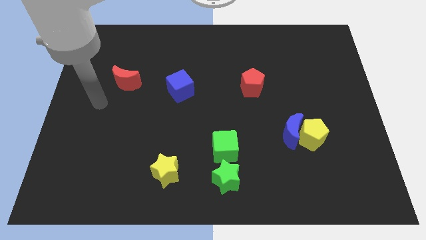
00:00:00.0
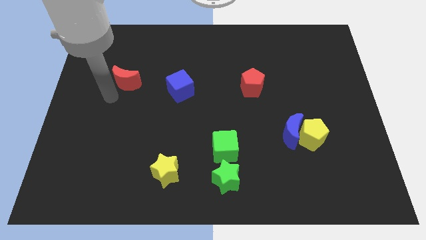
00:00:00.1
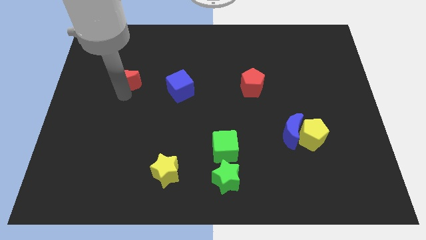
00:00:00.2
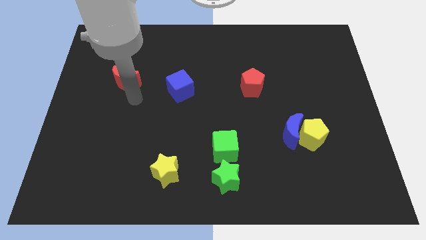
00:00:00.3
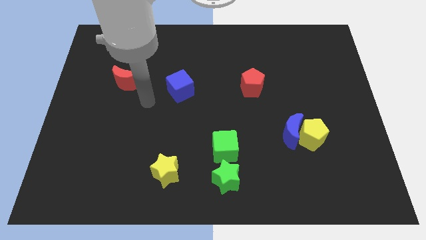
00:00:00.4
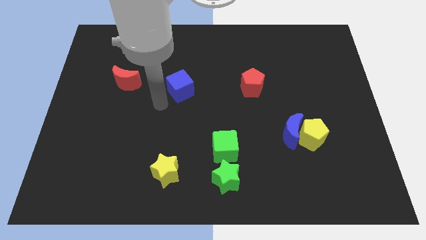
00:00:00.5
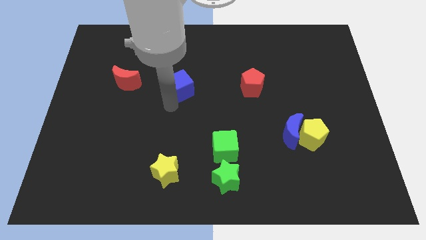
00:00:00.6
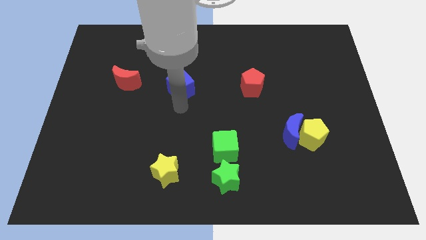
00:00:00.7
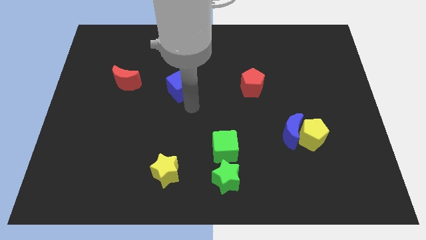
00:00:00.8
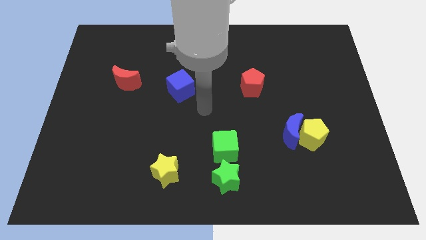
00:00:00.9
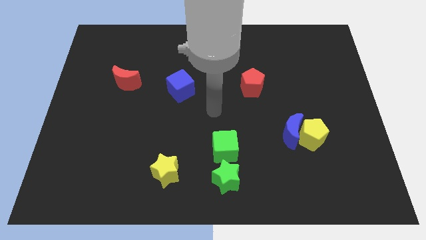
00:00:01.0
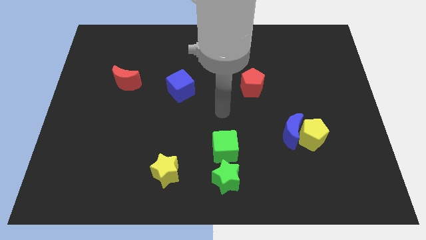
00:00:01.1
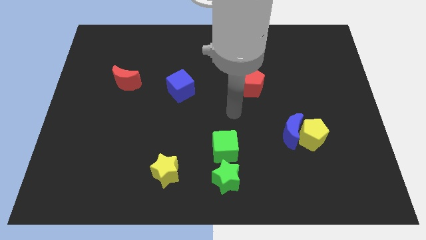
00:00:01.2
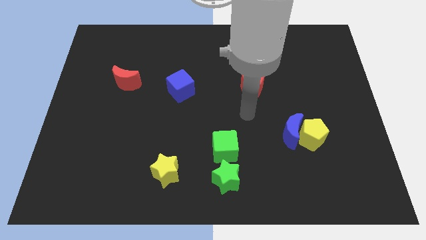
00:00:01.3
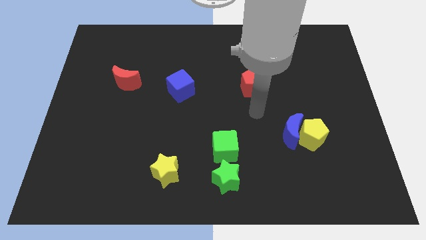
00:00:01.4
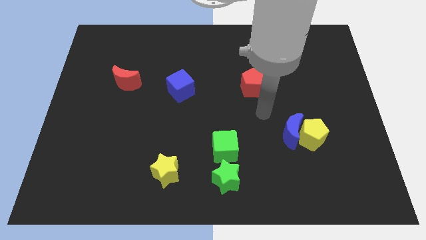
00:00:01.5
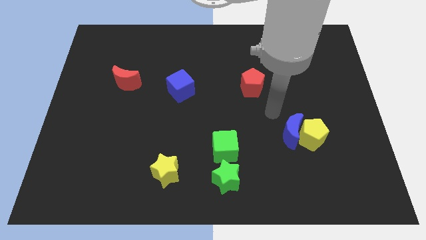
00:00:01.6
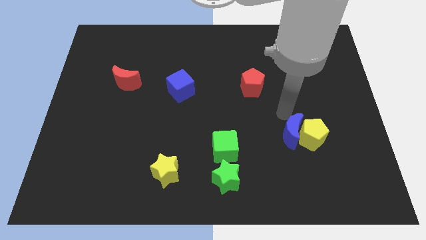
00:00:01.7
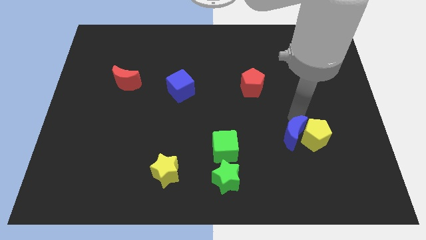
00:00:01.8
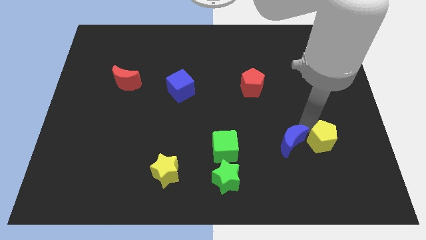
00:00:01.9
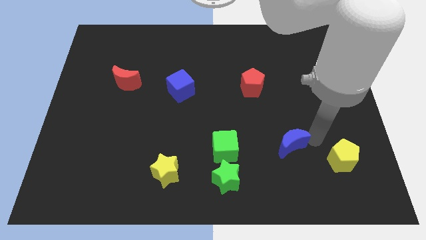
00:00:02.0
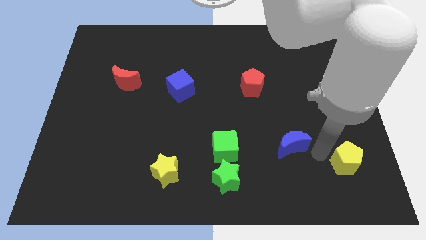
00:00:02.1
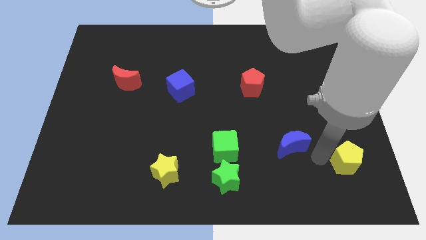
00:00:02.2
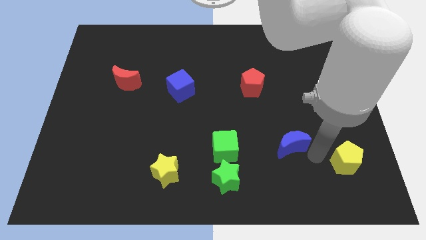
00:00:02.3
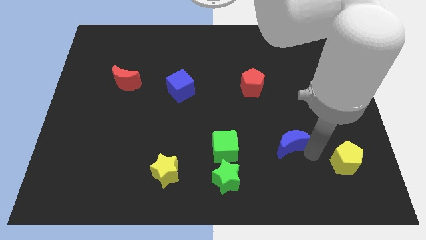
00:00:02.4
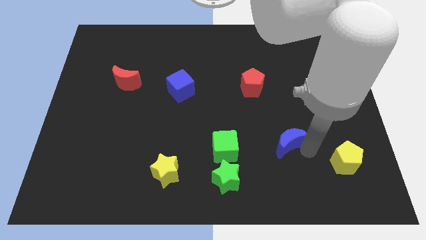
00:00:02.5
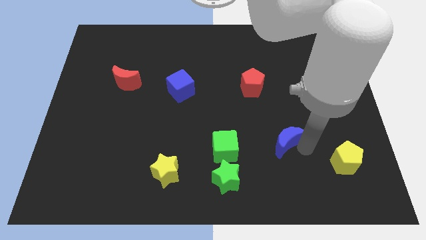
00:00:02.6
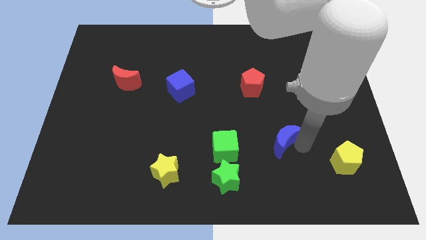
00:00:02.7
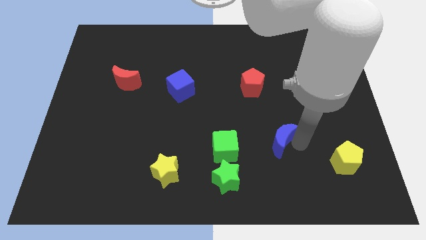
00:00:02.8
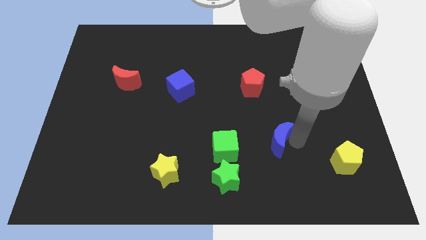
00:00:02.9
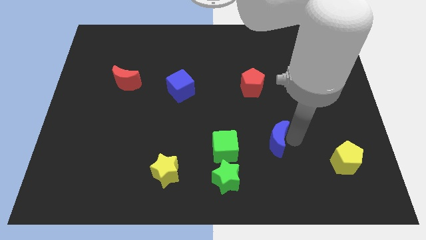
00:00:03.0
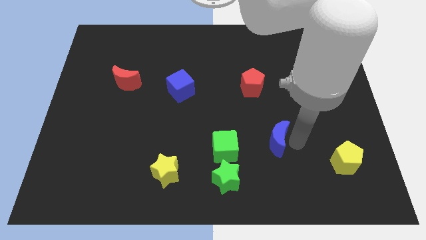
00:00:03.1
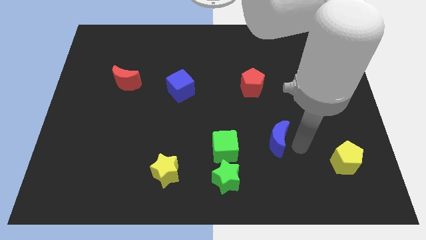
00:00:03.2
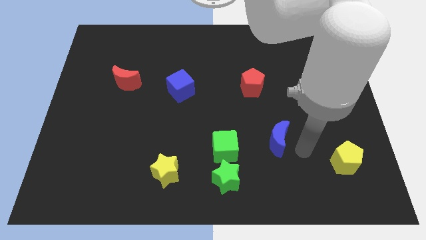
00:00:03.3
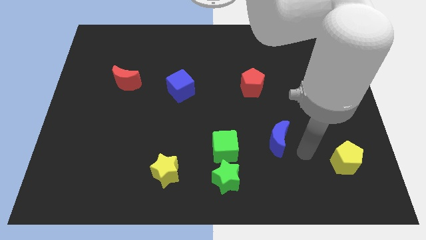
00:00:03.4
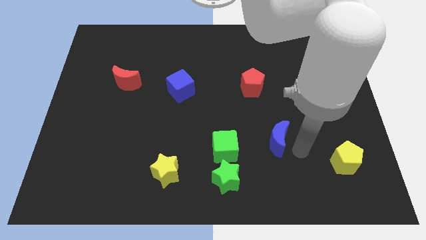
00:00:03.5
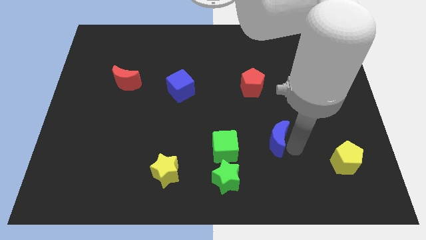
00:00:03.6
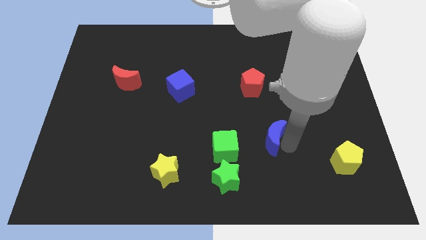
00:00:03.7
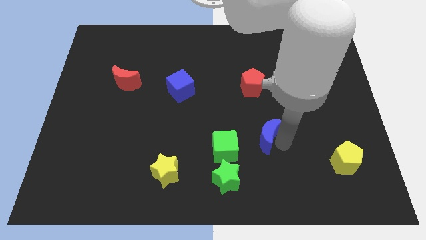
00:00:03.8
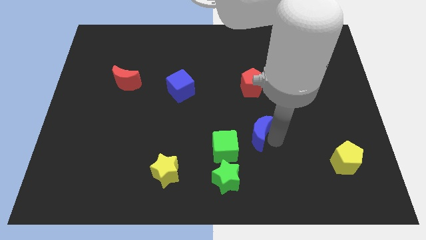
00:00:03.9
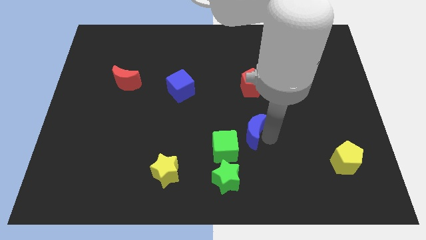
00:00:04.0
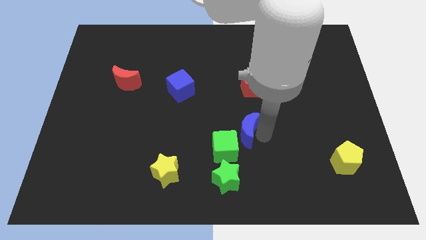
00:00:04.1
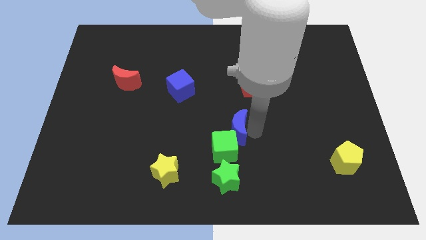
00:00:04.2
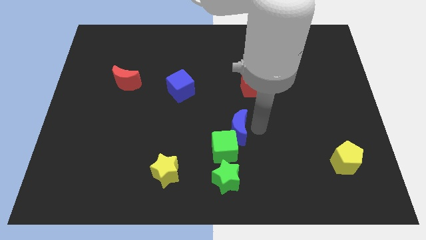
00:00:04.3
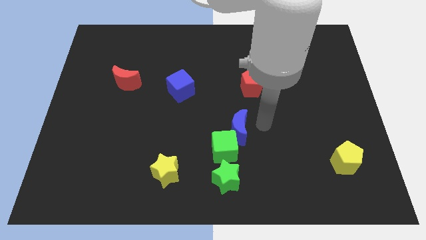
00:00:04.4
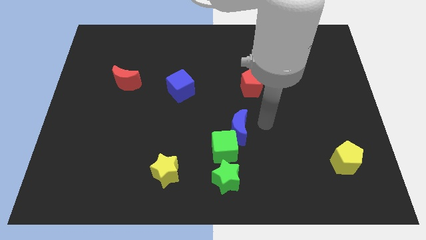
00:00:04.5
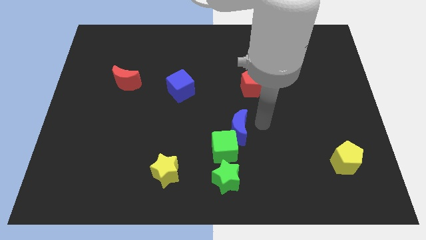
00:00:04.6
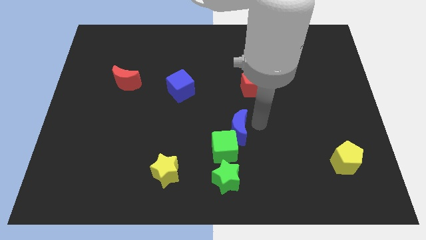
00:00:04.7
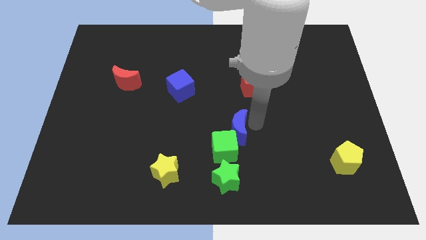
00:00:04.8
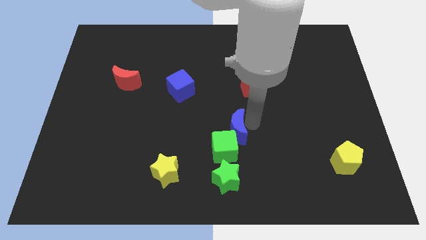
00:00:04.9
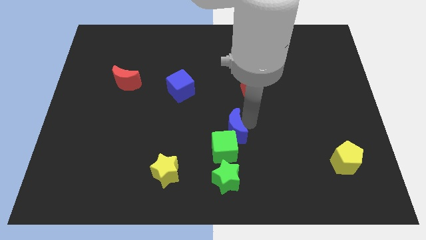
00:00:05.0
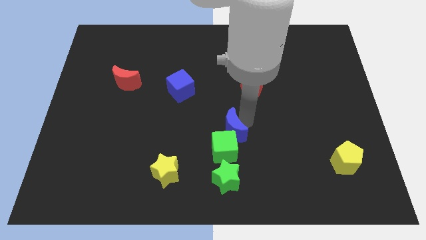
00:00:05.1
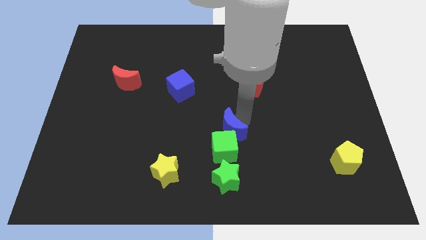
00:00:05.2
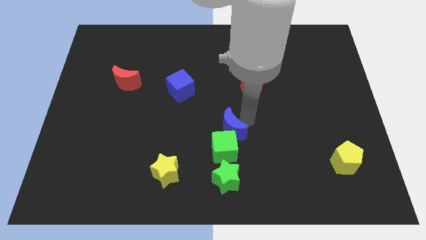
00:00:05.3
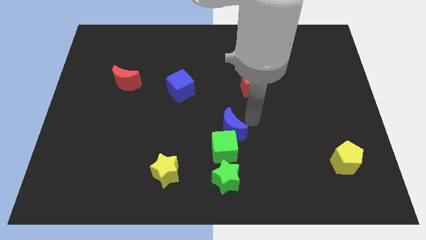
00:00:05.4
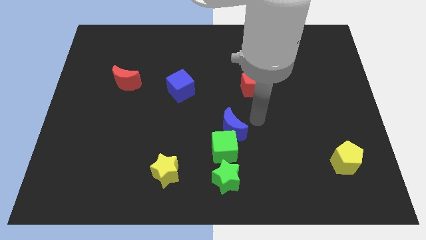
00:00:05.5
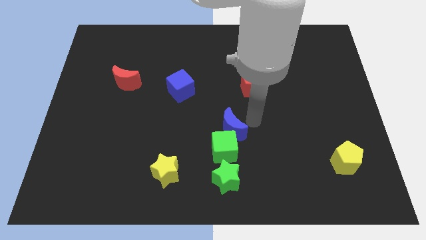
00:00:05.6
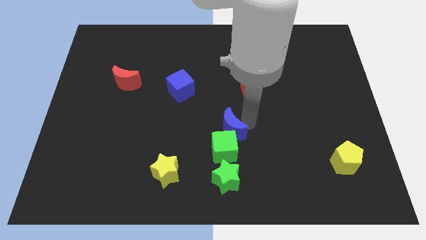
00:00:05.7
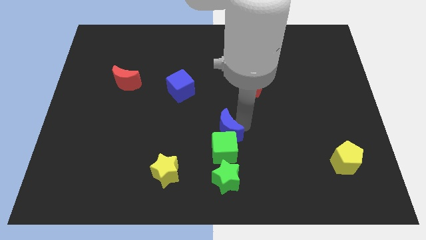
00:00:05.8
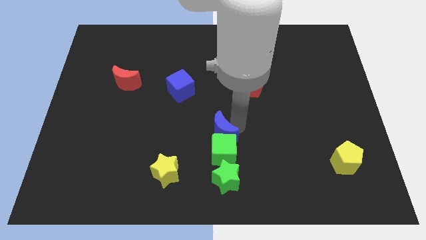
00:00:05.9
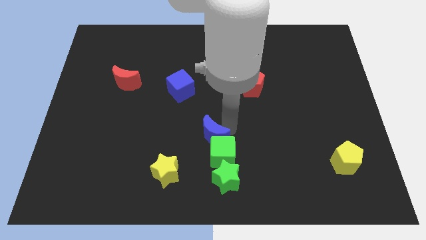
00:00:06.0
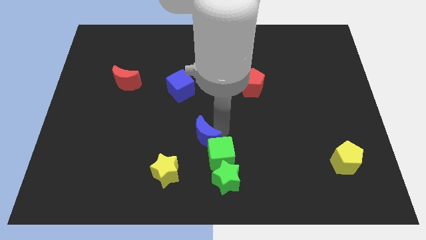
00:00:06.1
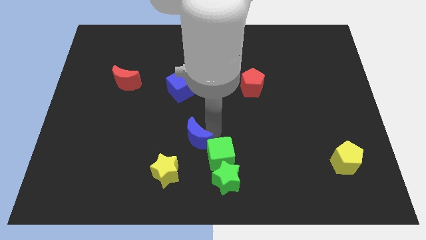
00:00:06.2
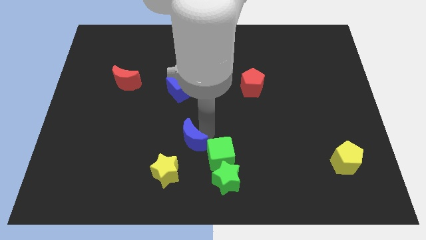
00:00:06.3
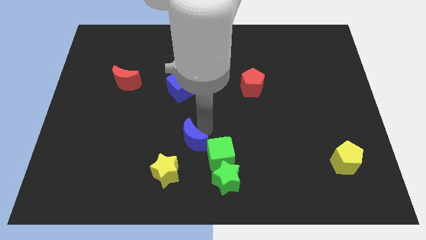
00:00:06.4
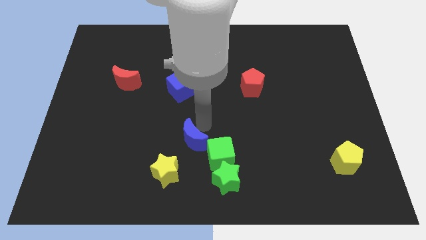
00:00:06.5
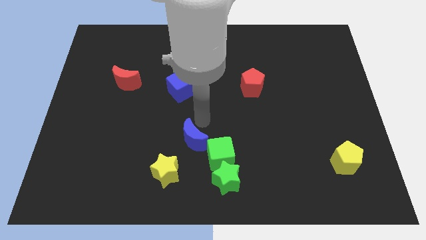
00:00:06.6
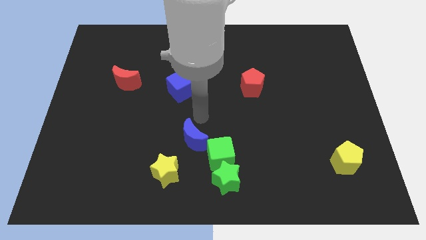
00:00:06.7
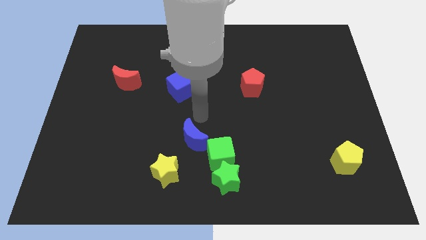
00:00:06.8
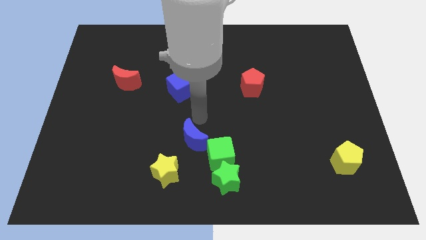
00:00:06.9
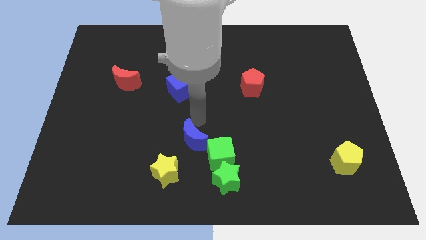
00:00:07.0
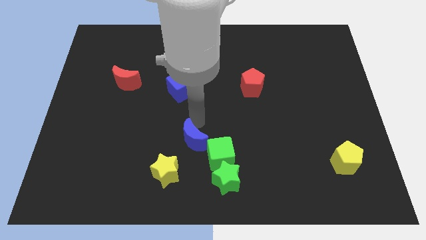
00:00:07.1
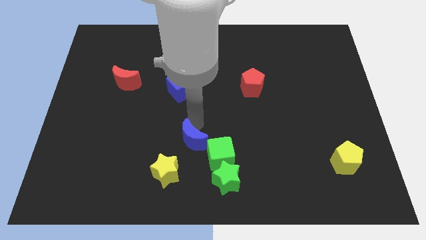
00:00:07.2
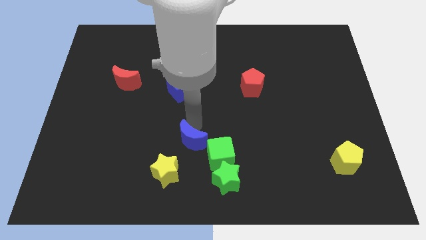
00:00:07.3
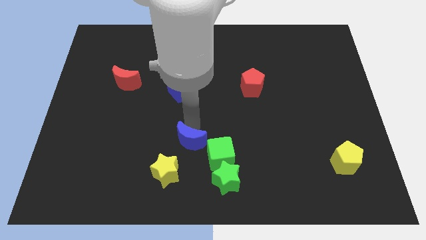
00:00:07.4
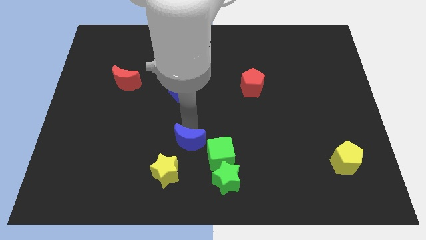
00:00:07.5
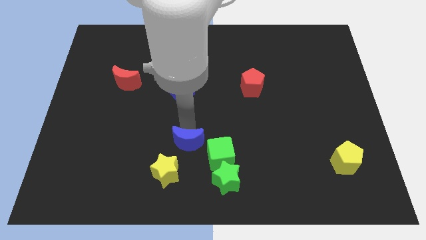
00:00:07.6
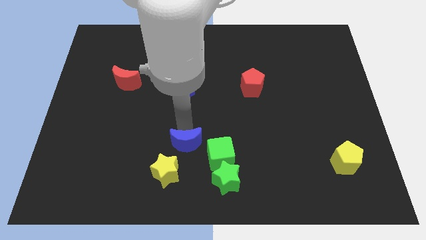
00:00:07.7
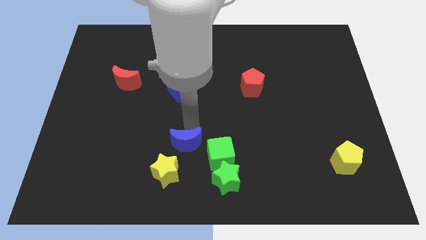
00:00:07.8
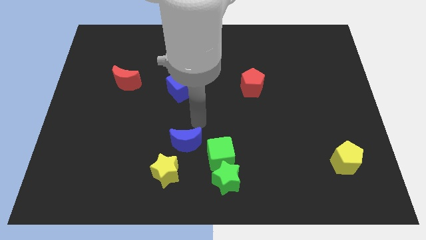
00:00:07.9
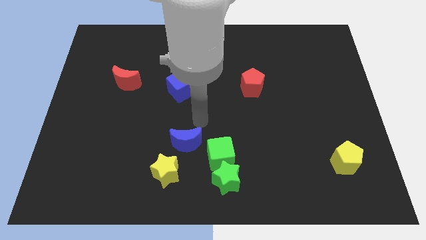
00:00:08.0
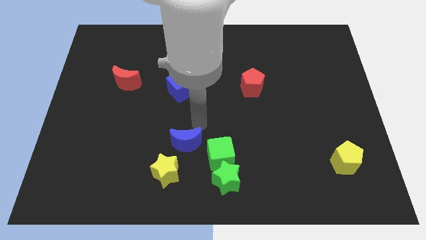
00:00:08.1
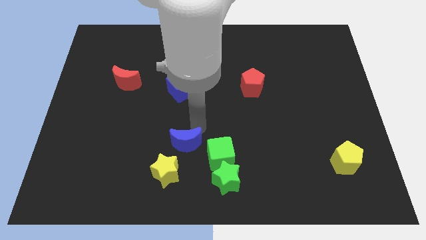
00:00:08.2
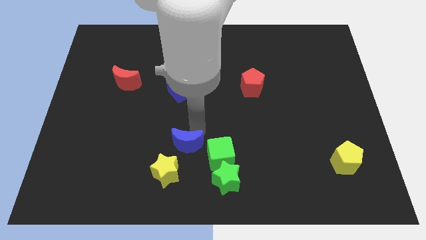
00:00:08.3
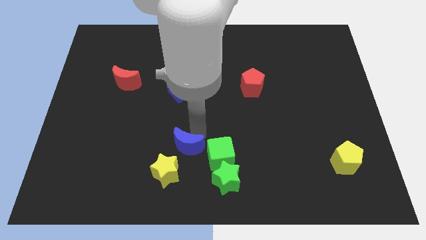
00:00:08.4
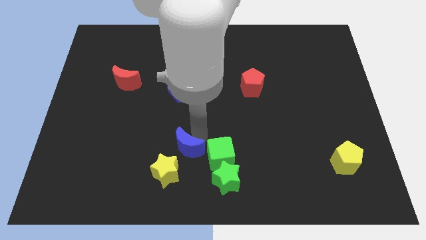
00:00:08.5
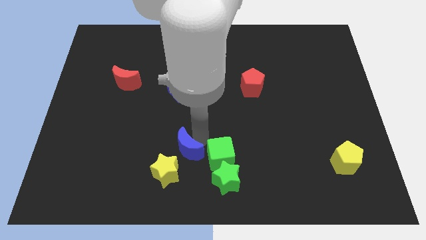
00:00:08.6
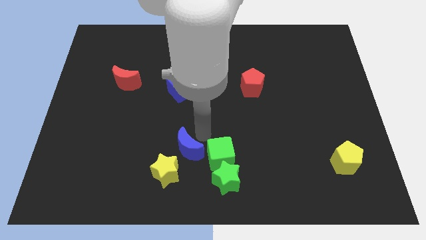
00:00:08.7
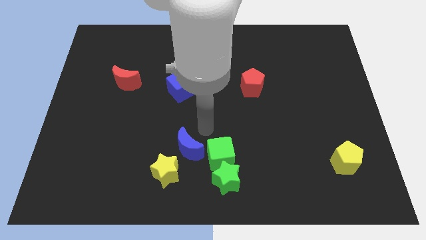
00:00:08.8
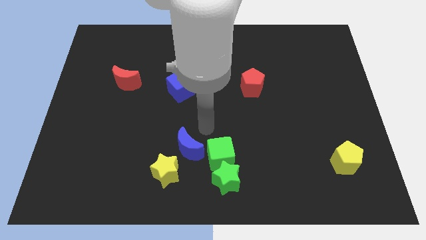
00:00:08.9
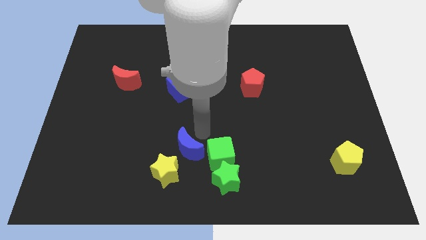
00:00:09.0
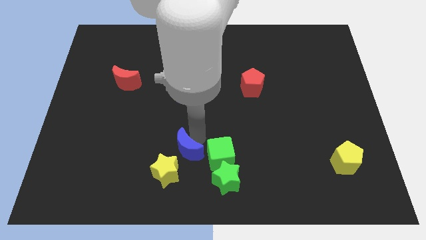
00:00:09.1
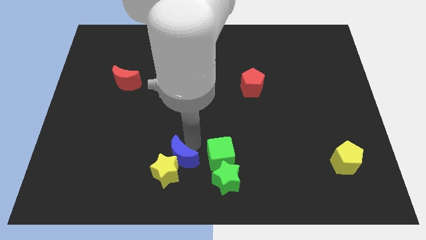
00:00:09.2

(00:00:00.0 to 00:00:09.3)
put the blue moon next to the yellow star
